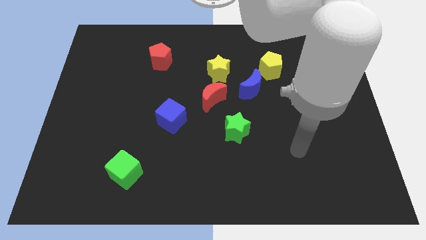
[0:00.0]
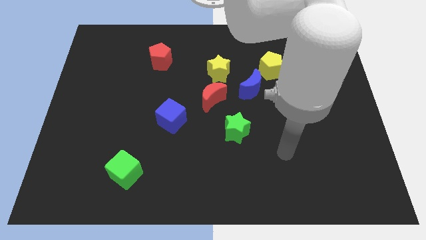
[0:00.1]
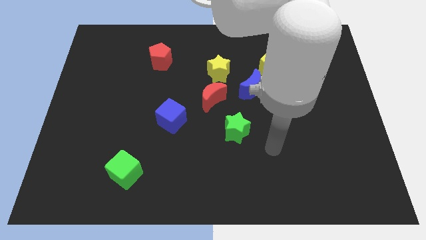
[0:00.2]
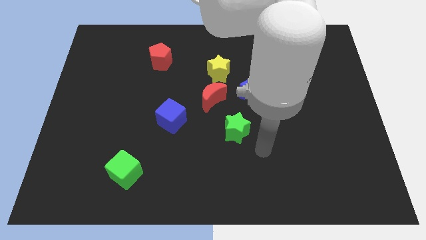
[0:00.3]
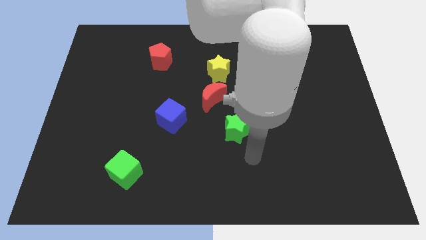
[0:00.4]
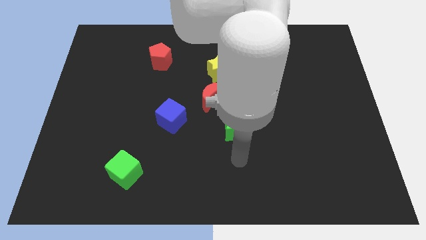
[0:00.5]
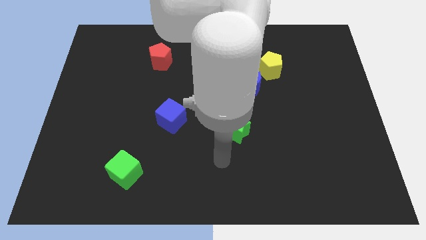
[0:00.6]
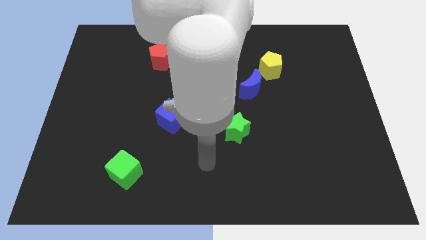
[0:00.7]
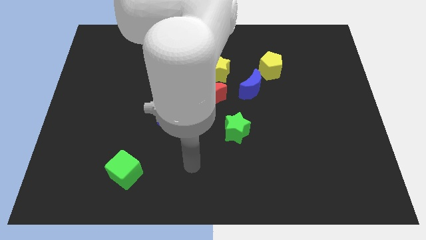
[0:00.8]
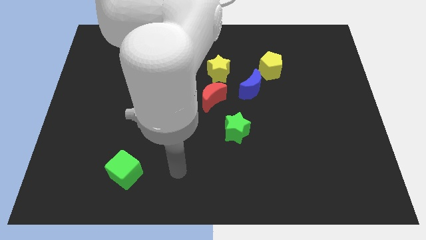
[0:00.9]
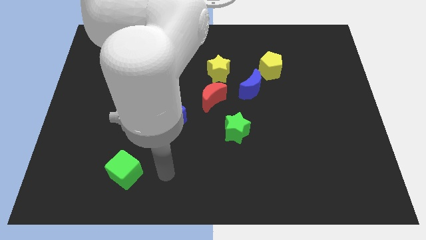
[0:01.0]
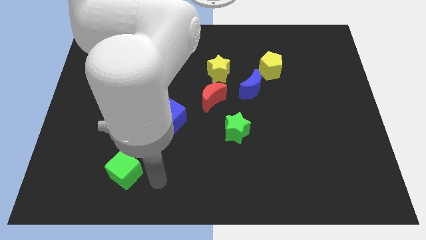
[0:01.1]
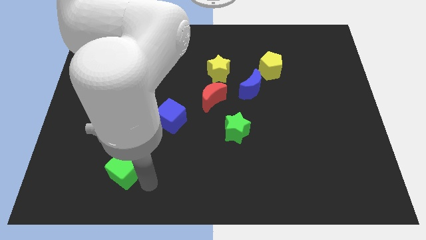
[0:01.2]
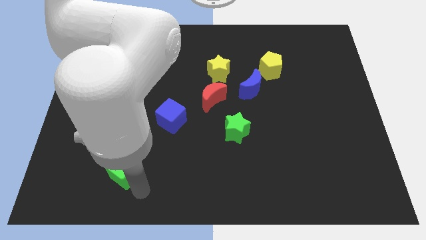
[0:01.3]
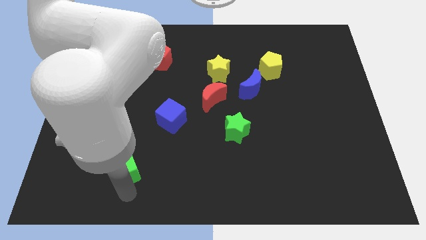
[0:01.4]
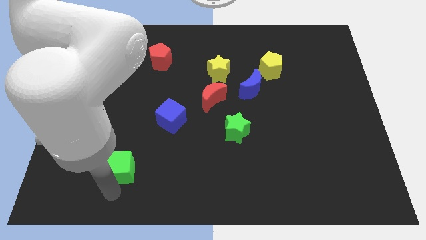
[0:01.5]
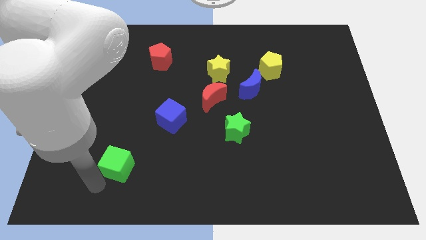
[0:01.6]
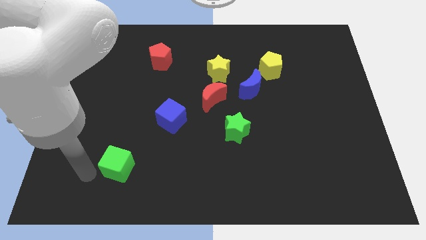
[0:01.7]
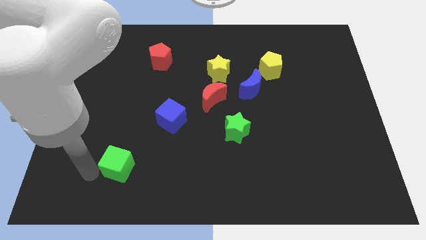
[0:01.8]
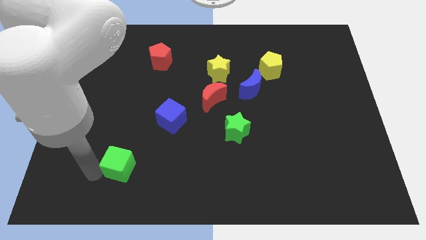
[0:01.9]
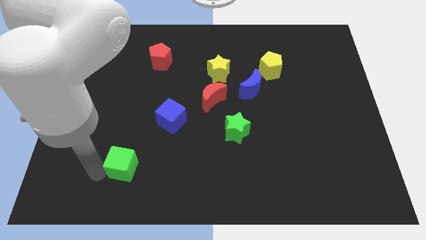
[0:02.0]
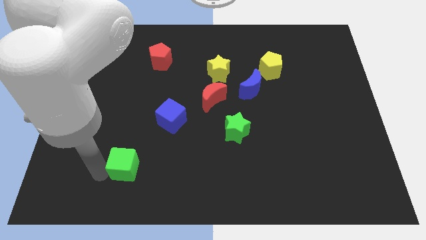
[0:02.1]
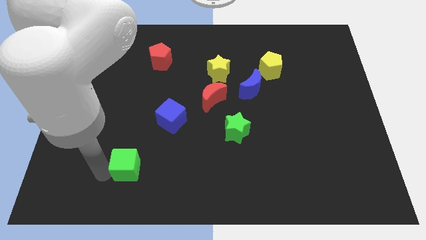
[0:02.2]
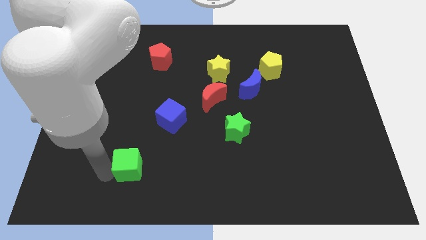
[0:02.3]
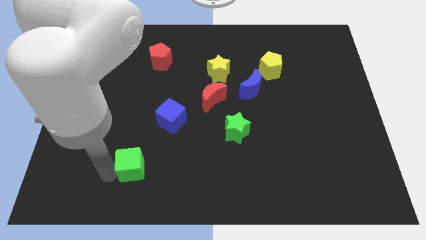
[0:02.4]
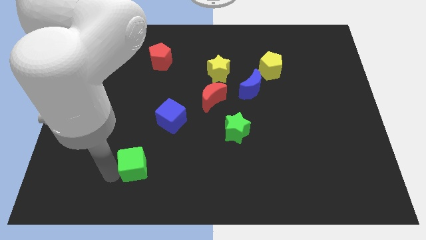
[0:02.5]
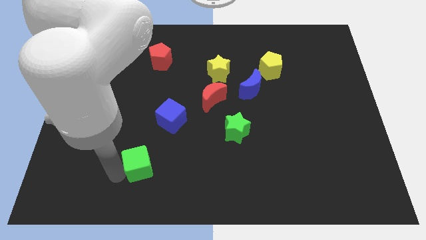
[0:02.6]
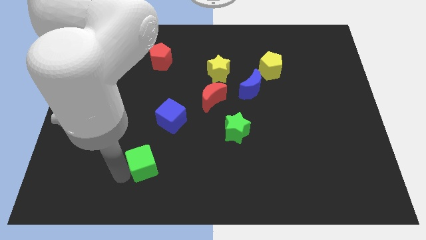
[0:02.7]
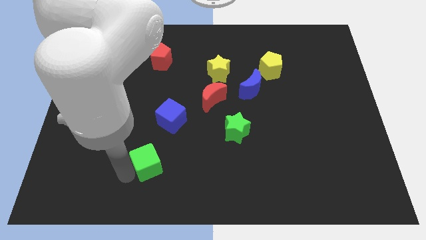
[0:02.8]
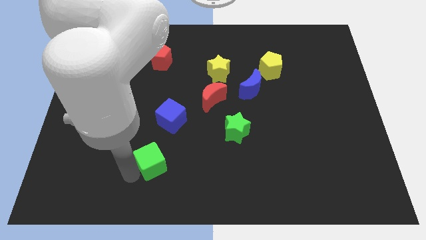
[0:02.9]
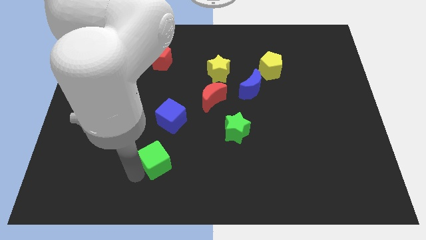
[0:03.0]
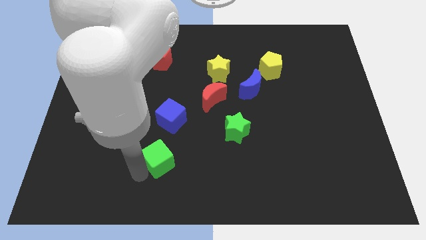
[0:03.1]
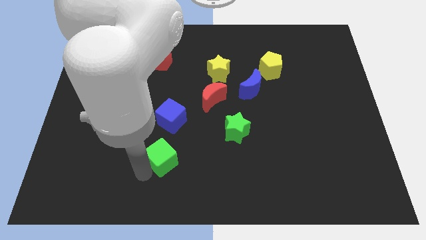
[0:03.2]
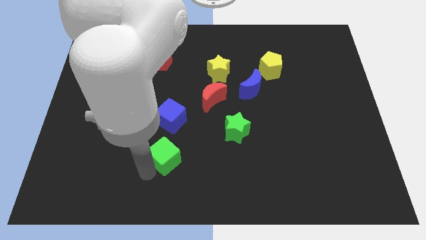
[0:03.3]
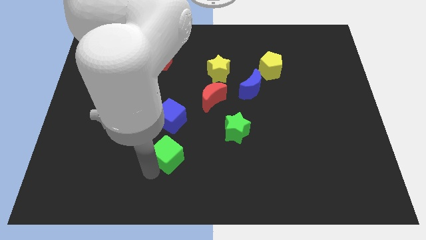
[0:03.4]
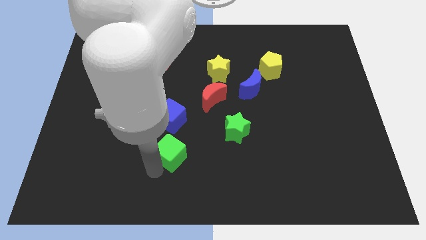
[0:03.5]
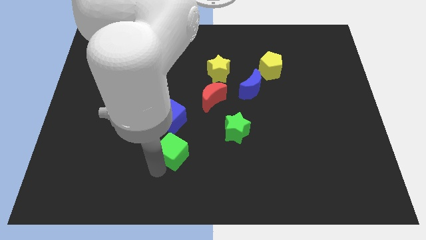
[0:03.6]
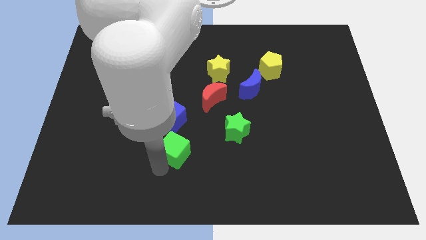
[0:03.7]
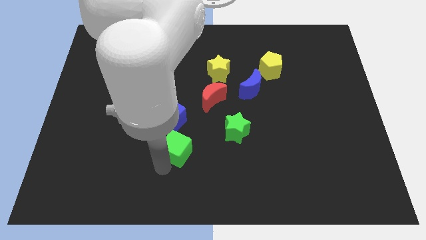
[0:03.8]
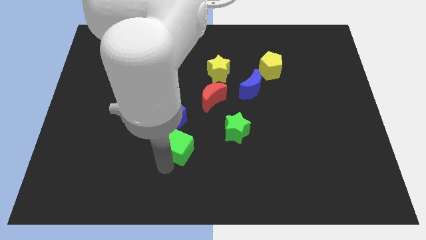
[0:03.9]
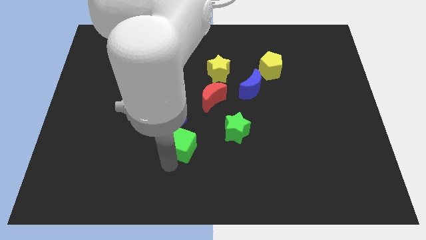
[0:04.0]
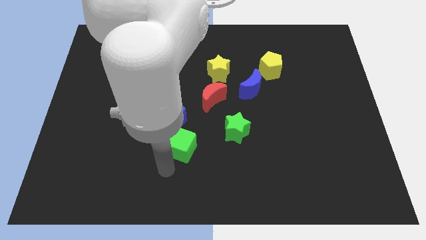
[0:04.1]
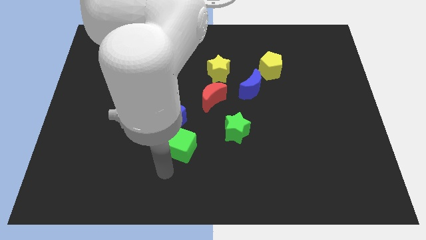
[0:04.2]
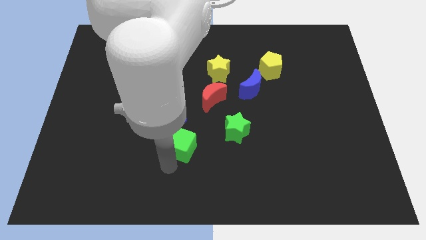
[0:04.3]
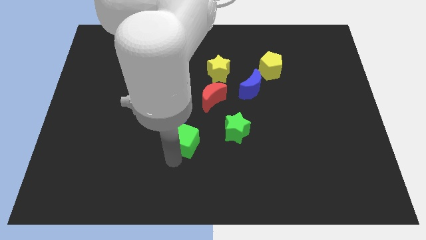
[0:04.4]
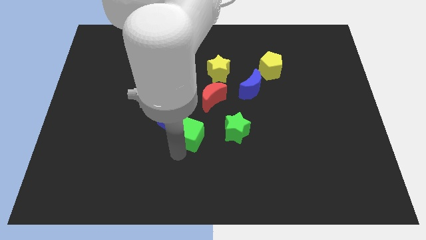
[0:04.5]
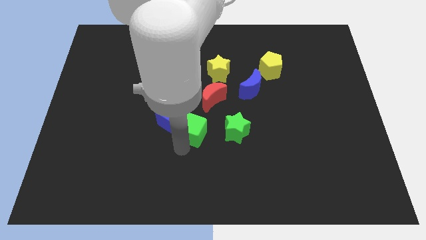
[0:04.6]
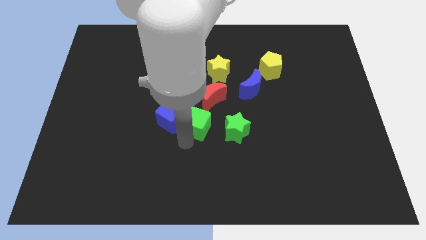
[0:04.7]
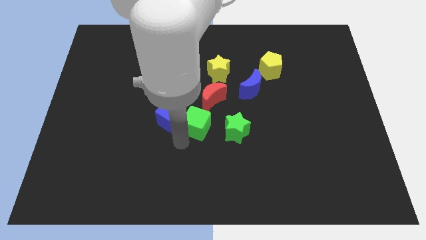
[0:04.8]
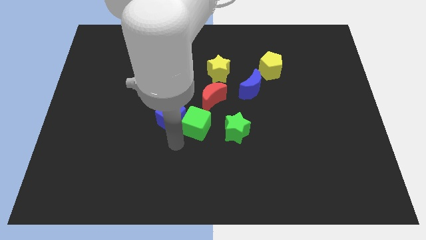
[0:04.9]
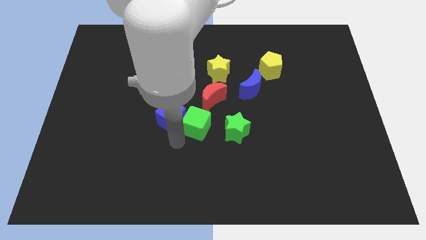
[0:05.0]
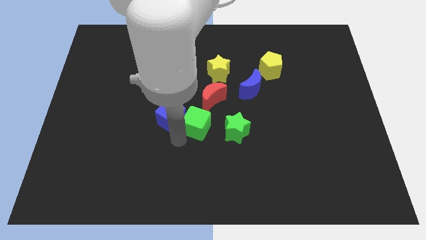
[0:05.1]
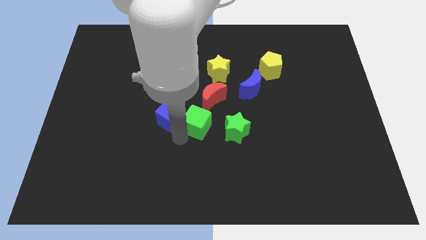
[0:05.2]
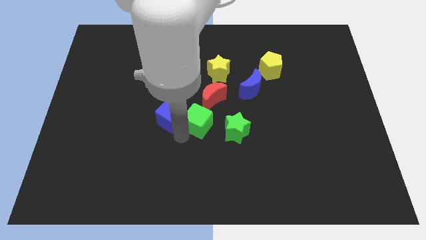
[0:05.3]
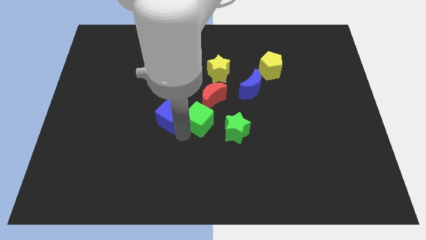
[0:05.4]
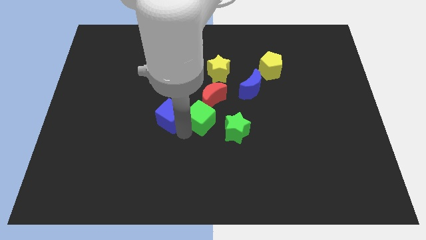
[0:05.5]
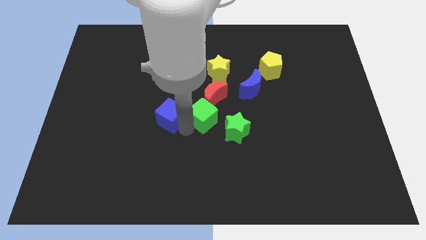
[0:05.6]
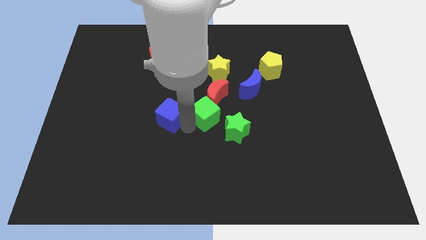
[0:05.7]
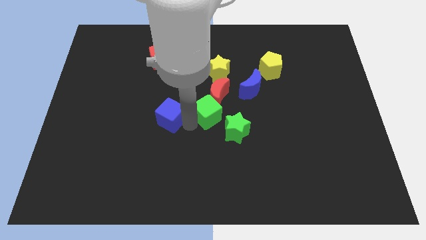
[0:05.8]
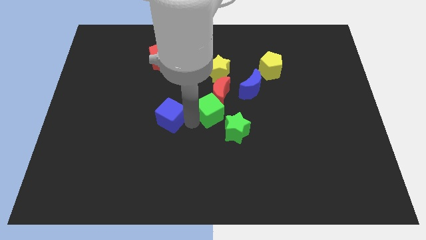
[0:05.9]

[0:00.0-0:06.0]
move the green cube to the bottom left side of the blue moon

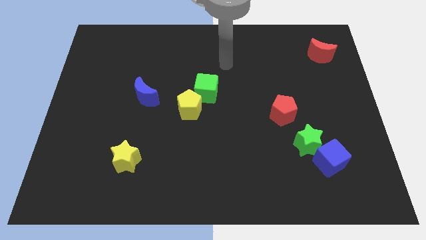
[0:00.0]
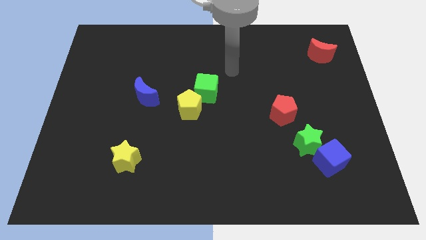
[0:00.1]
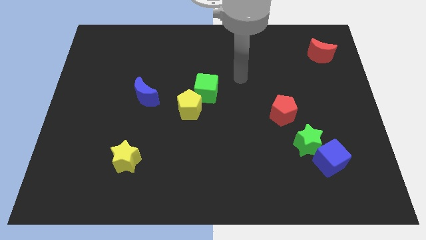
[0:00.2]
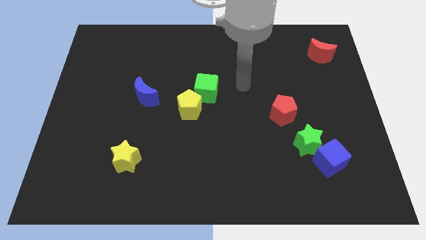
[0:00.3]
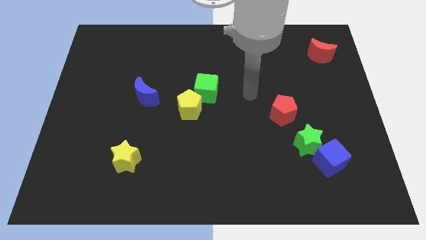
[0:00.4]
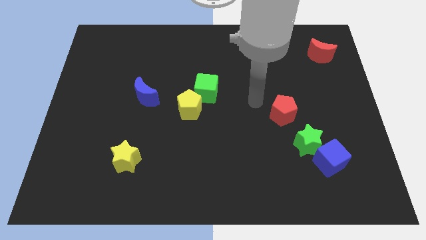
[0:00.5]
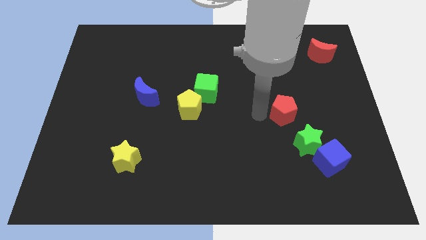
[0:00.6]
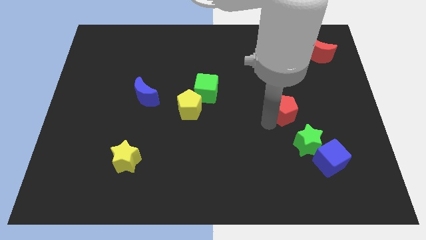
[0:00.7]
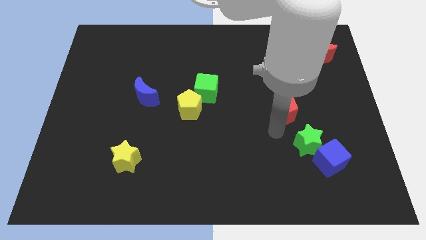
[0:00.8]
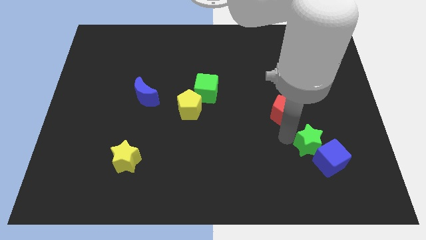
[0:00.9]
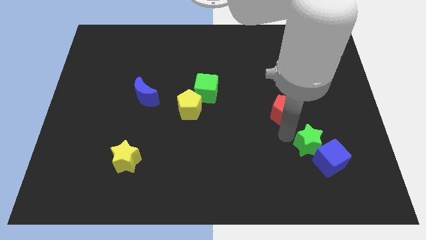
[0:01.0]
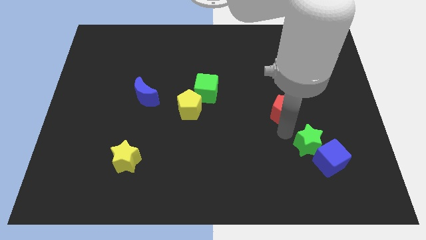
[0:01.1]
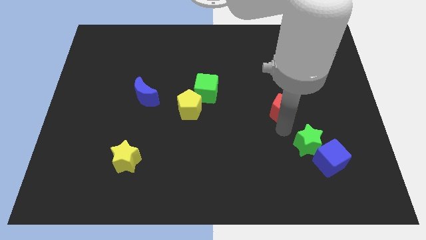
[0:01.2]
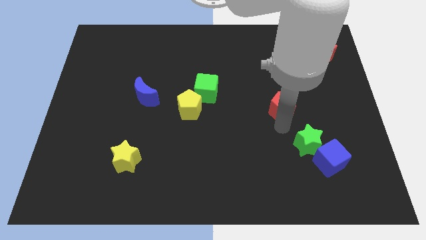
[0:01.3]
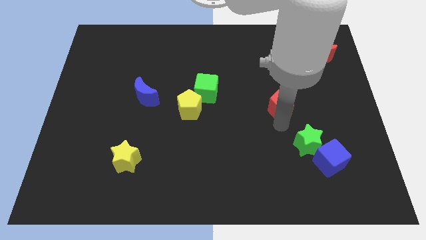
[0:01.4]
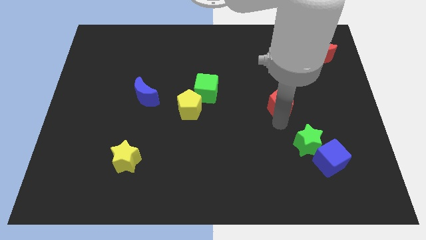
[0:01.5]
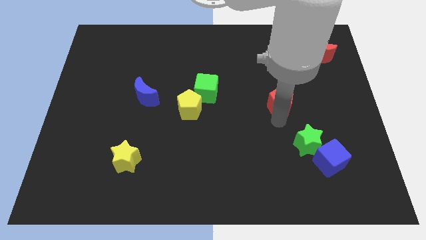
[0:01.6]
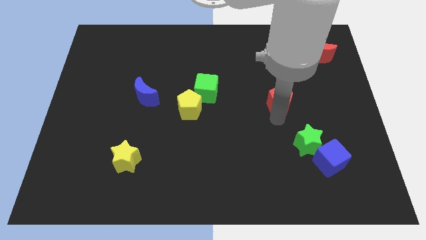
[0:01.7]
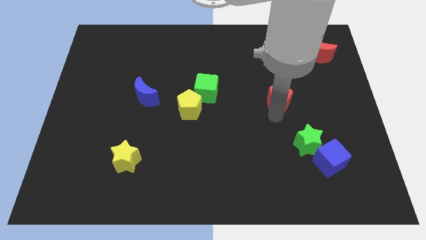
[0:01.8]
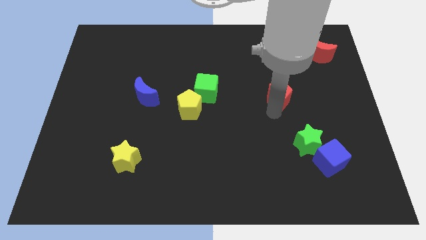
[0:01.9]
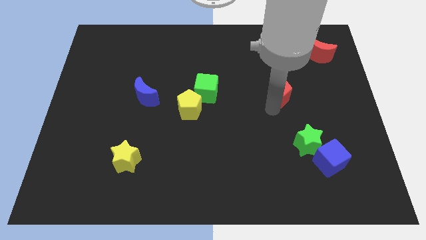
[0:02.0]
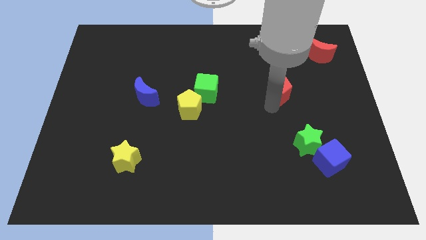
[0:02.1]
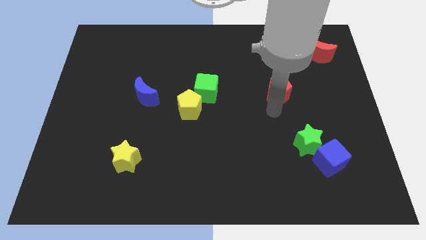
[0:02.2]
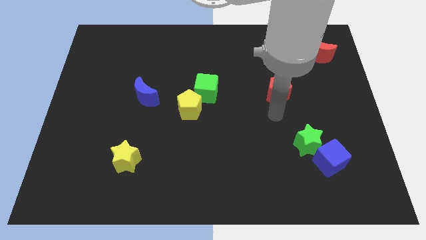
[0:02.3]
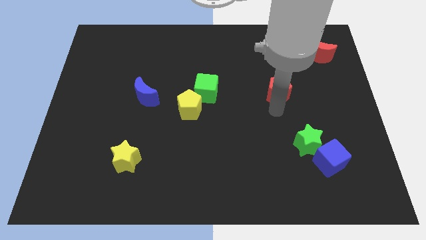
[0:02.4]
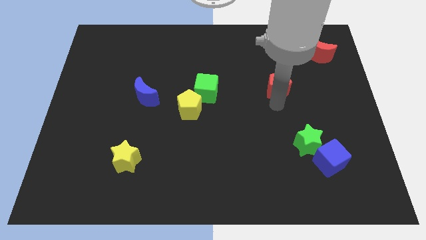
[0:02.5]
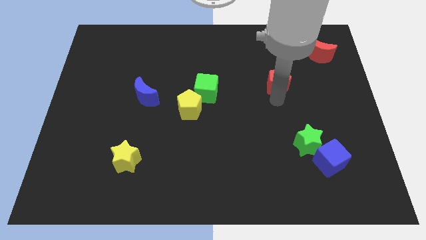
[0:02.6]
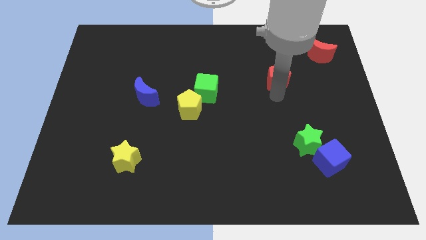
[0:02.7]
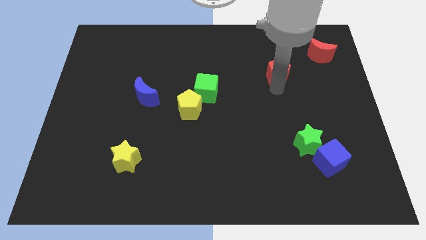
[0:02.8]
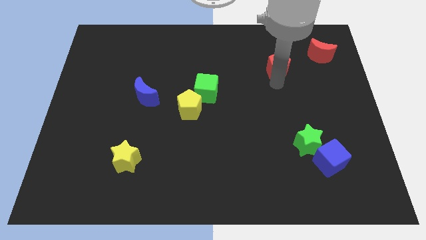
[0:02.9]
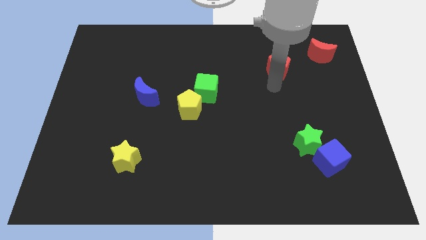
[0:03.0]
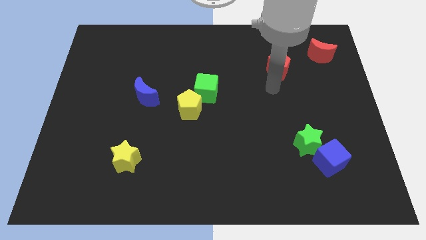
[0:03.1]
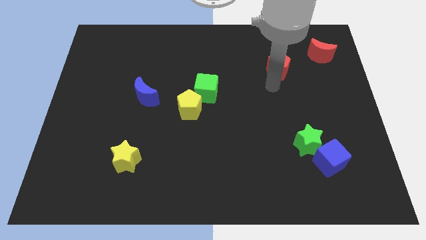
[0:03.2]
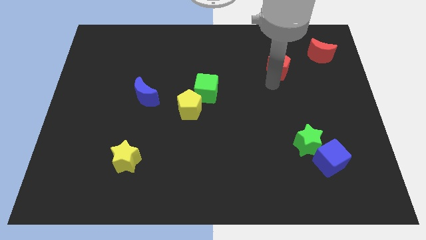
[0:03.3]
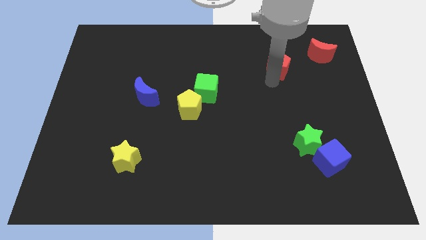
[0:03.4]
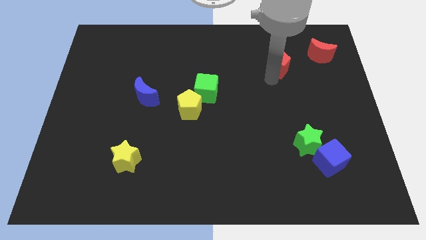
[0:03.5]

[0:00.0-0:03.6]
push the red pentagon to the left of the red moon
